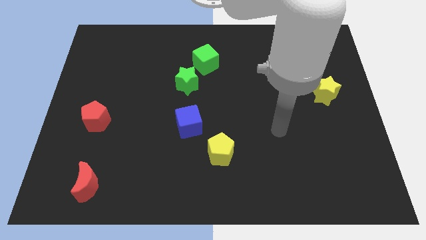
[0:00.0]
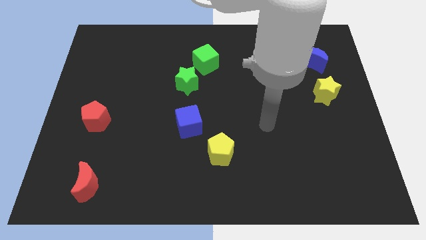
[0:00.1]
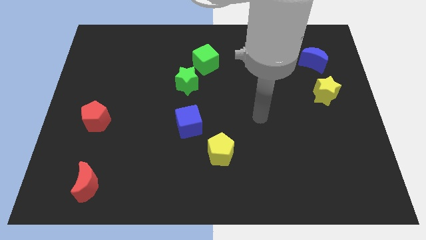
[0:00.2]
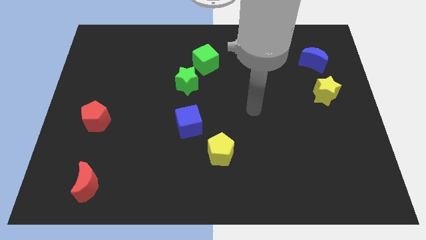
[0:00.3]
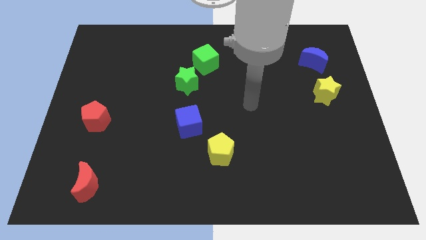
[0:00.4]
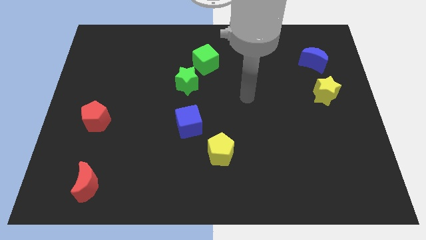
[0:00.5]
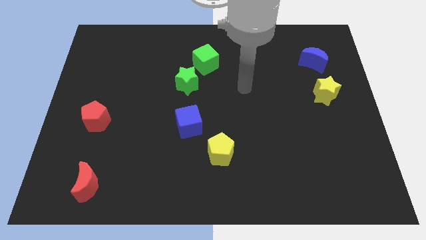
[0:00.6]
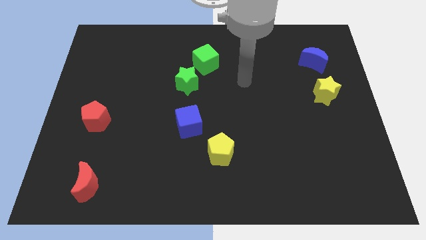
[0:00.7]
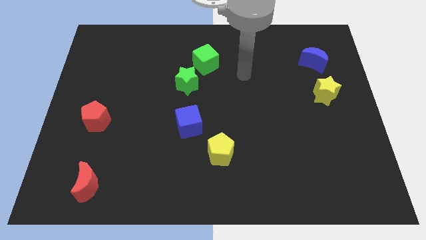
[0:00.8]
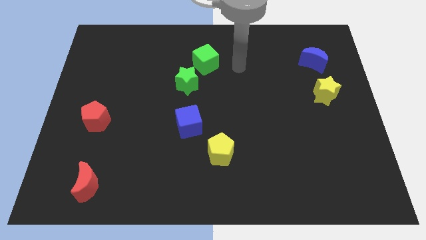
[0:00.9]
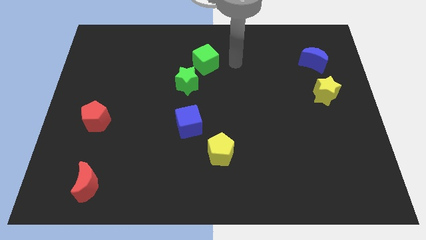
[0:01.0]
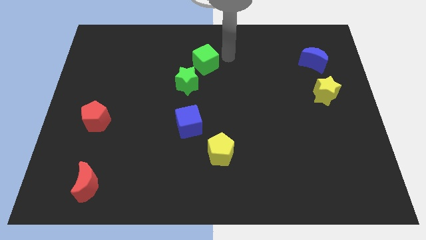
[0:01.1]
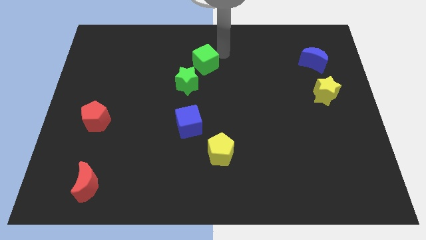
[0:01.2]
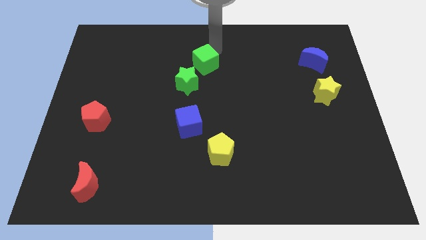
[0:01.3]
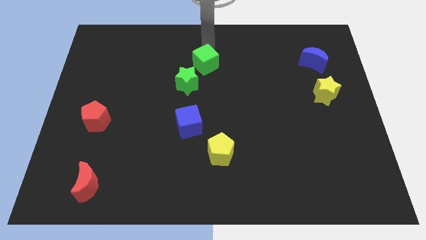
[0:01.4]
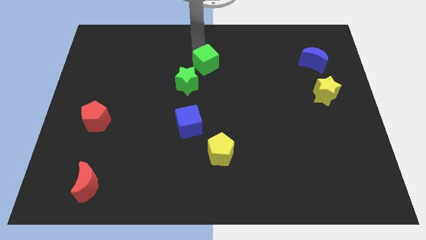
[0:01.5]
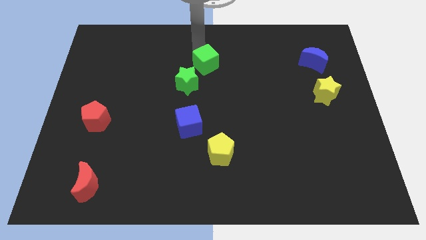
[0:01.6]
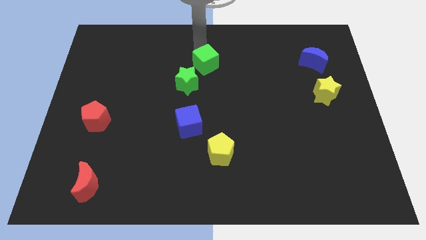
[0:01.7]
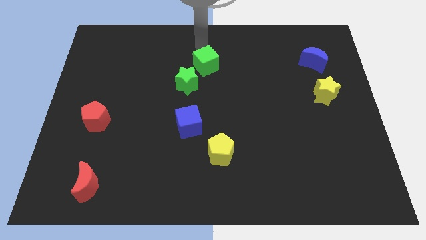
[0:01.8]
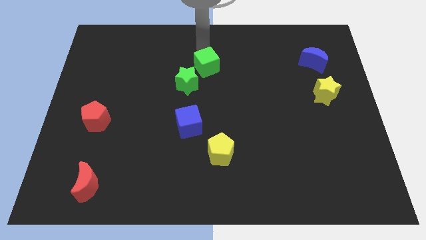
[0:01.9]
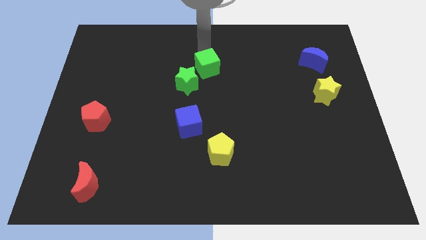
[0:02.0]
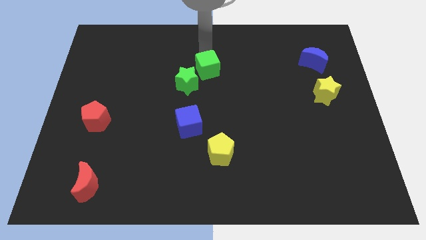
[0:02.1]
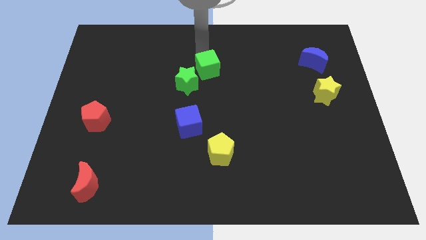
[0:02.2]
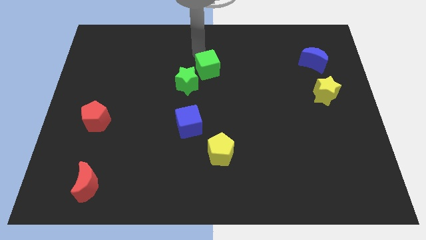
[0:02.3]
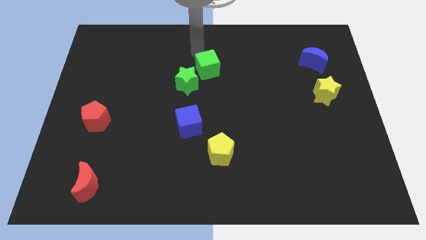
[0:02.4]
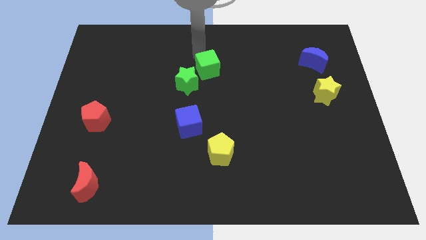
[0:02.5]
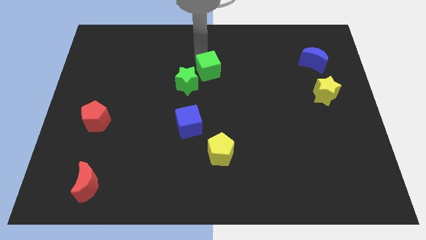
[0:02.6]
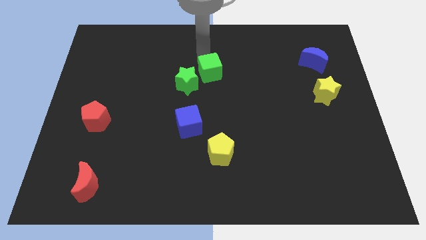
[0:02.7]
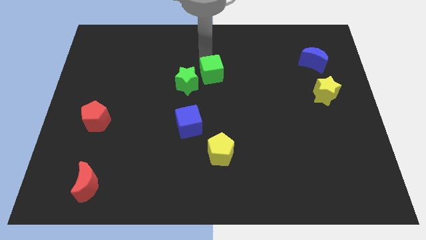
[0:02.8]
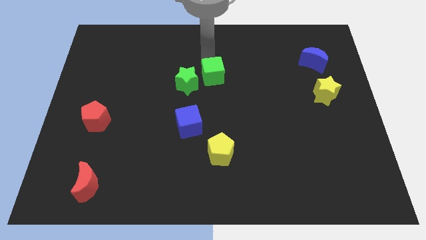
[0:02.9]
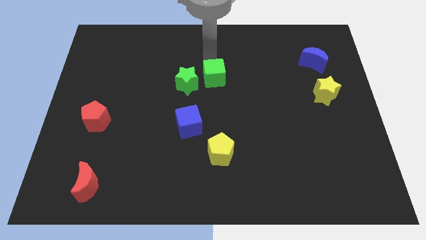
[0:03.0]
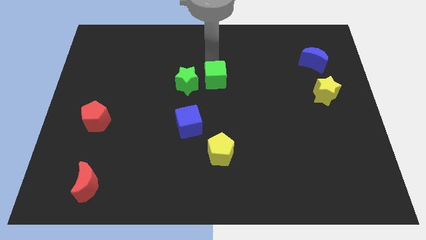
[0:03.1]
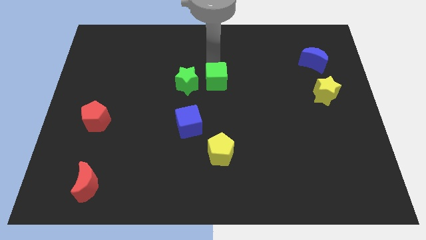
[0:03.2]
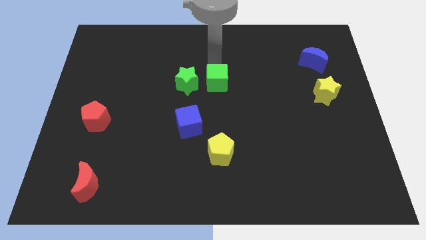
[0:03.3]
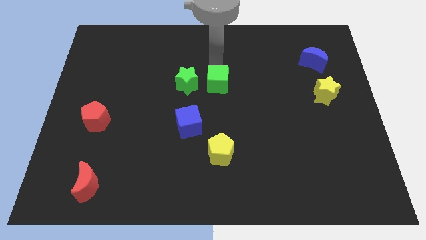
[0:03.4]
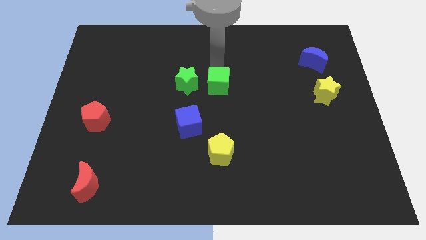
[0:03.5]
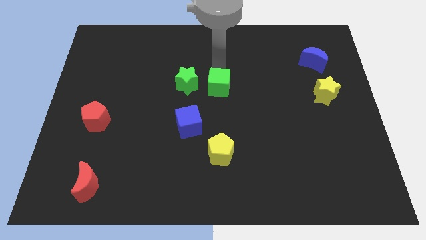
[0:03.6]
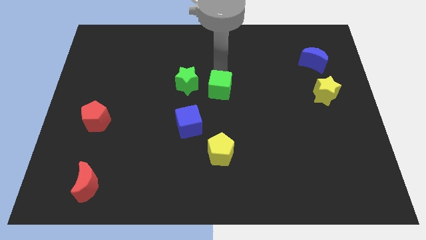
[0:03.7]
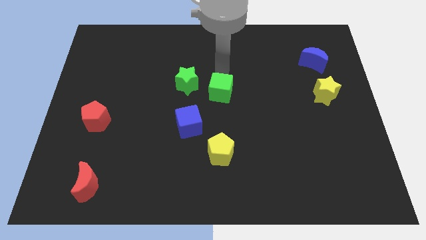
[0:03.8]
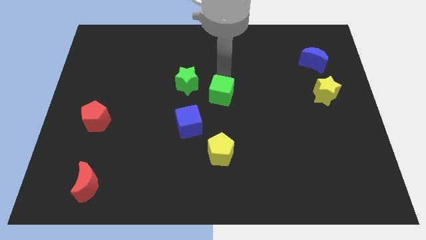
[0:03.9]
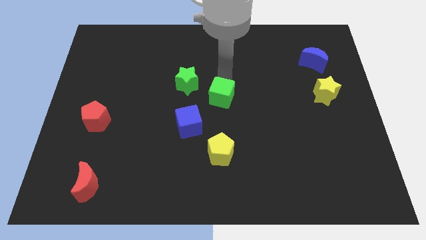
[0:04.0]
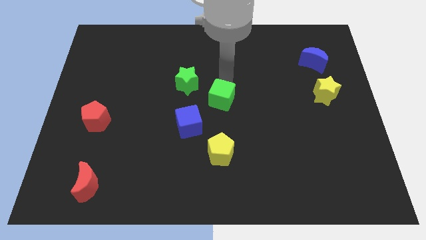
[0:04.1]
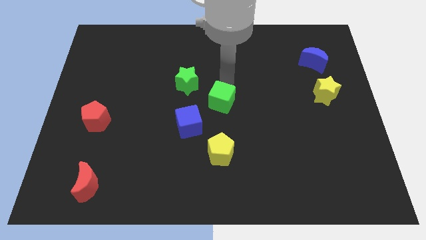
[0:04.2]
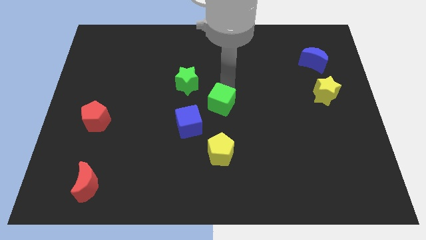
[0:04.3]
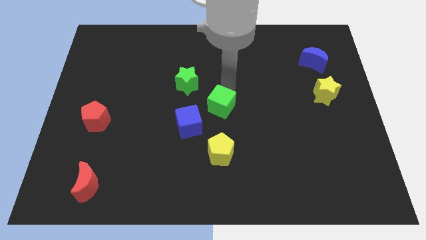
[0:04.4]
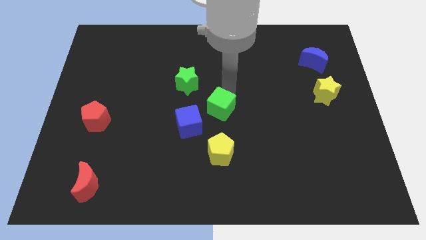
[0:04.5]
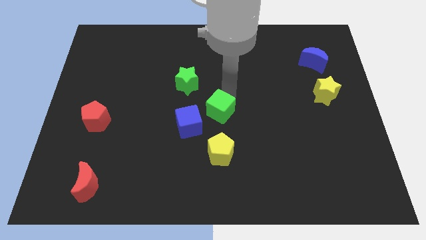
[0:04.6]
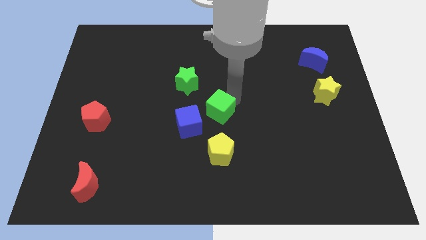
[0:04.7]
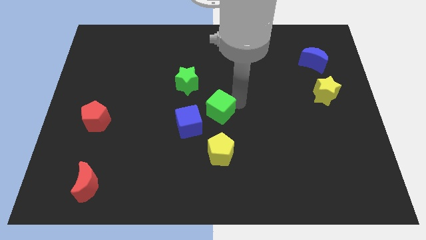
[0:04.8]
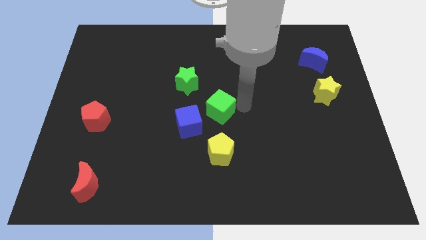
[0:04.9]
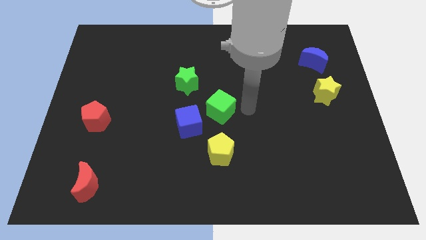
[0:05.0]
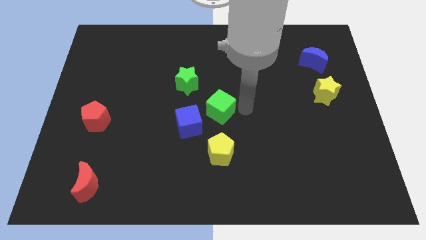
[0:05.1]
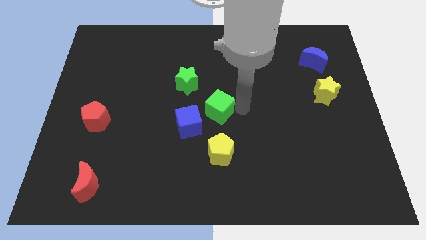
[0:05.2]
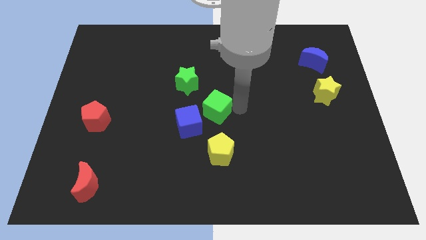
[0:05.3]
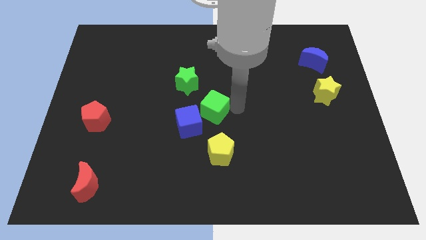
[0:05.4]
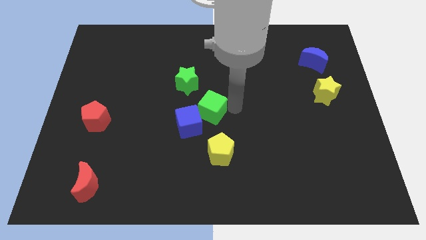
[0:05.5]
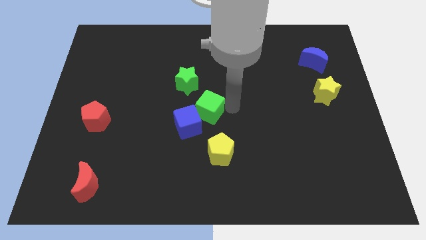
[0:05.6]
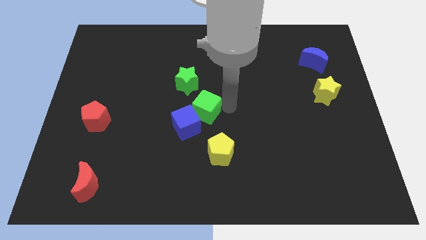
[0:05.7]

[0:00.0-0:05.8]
move the green cube to the blue cube
